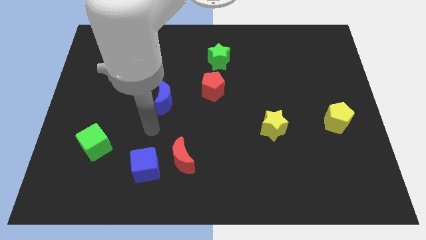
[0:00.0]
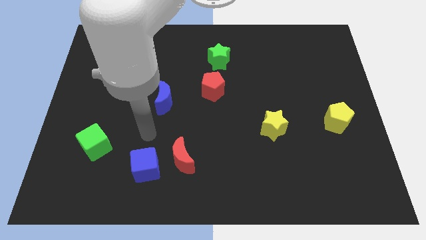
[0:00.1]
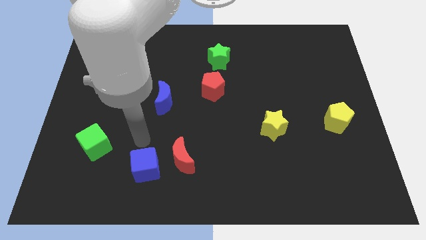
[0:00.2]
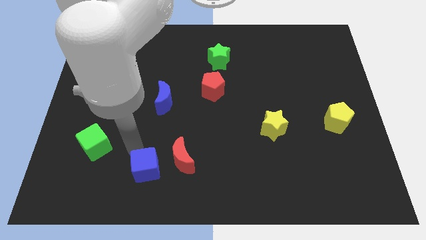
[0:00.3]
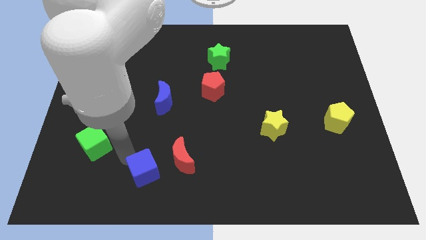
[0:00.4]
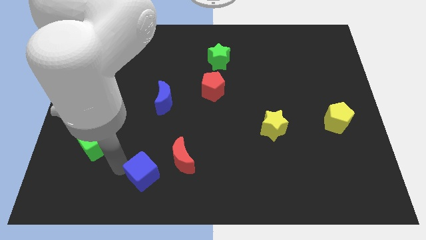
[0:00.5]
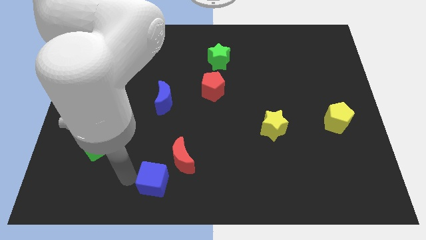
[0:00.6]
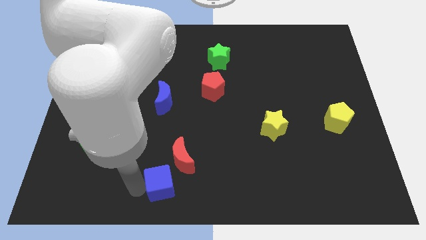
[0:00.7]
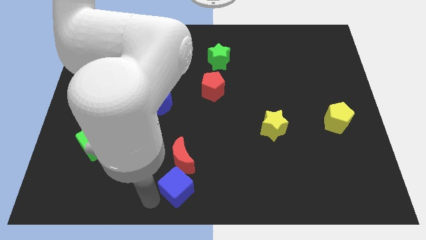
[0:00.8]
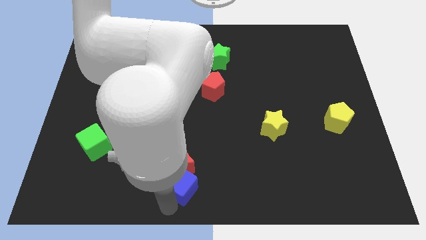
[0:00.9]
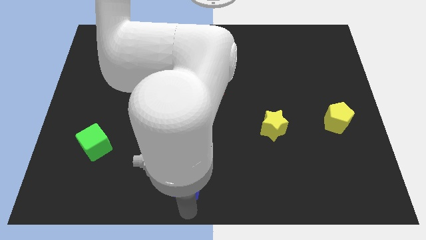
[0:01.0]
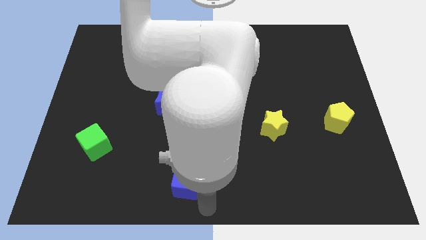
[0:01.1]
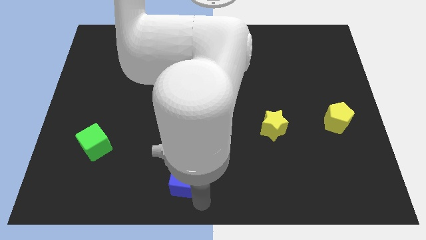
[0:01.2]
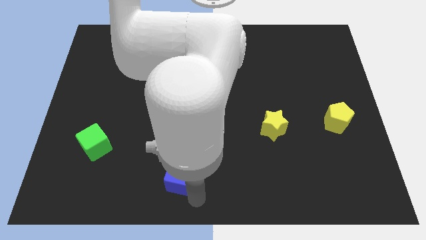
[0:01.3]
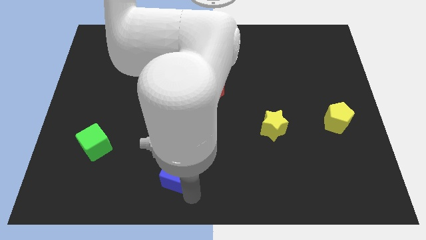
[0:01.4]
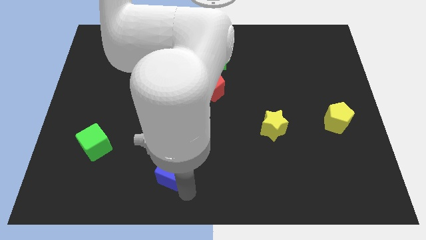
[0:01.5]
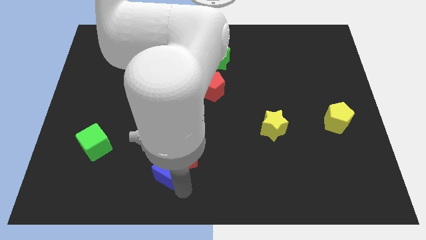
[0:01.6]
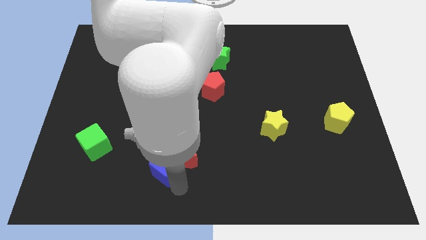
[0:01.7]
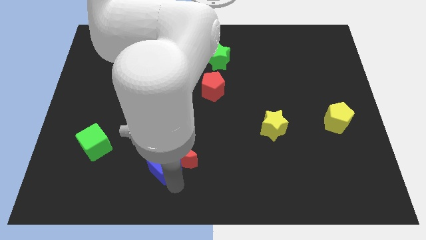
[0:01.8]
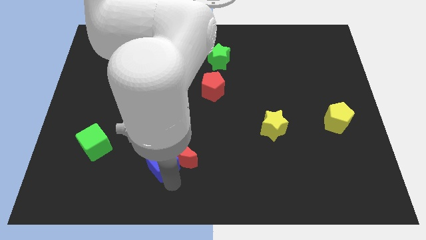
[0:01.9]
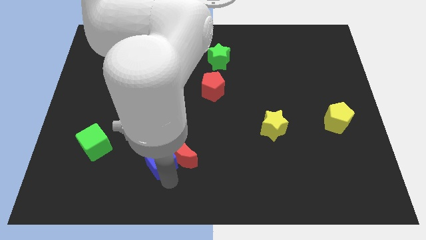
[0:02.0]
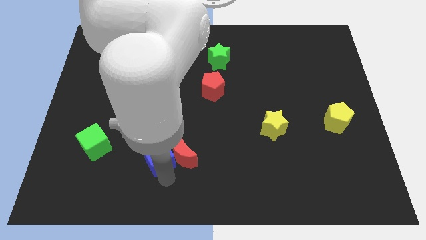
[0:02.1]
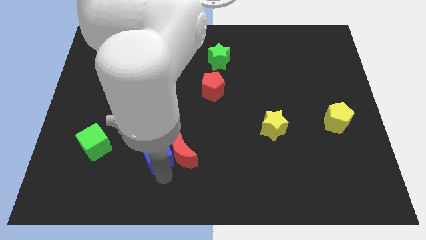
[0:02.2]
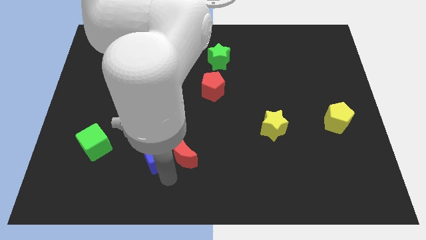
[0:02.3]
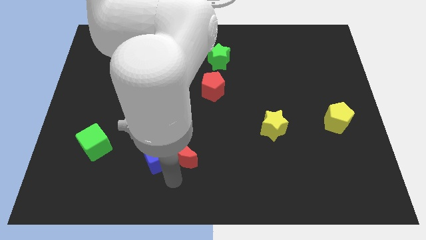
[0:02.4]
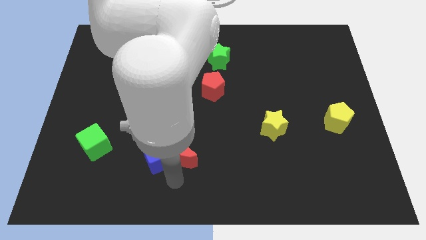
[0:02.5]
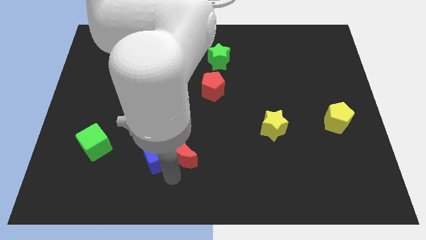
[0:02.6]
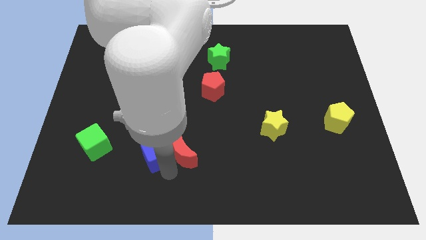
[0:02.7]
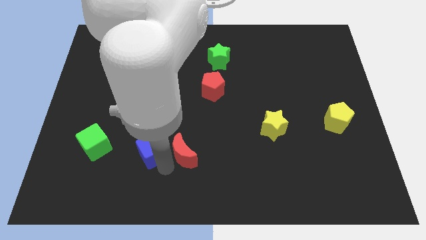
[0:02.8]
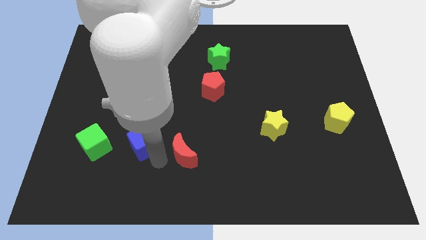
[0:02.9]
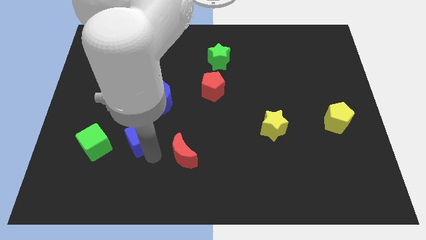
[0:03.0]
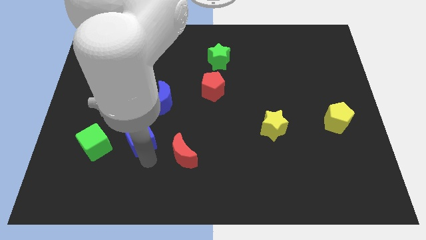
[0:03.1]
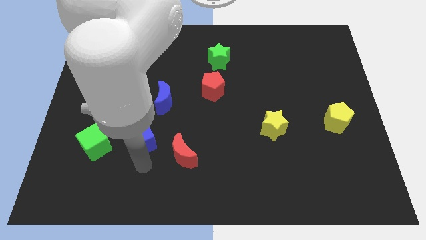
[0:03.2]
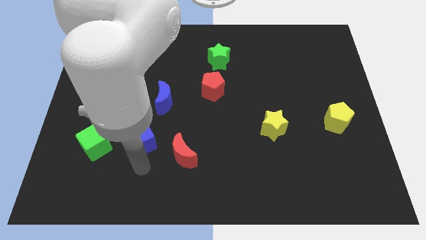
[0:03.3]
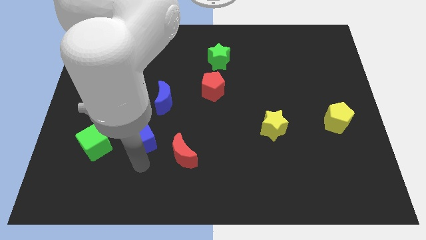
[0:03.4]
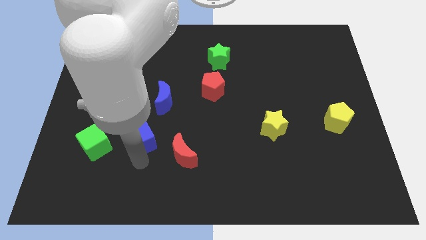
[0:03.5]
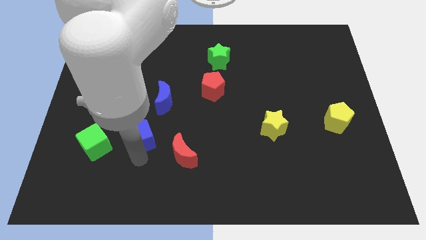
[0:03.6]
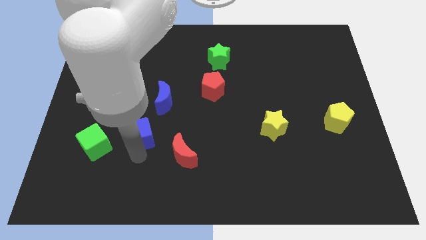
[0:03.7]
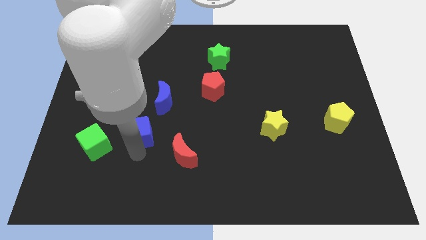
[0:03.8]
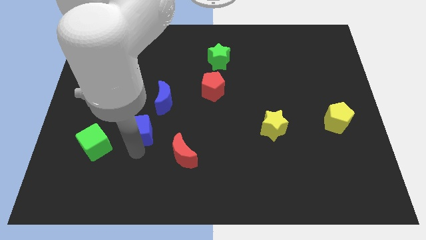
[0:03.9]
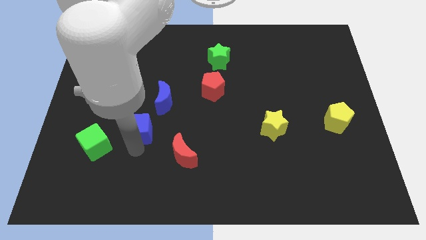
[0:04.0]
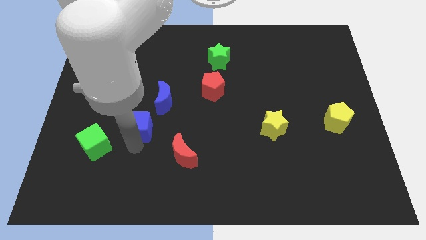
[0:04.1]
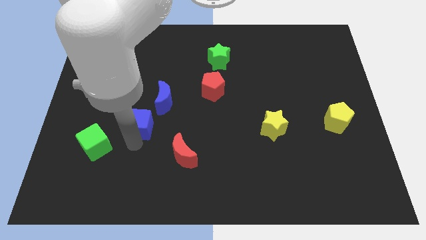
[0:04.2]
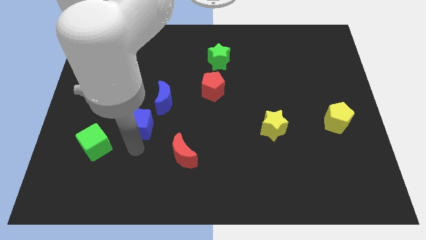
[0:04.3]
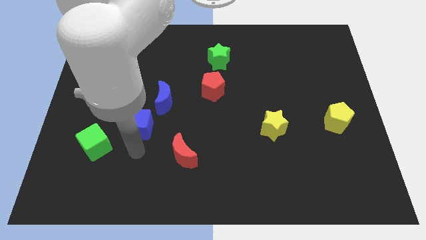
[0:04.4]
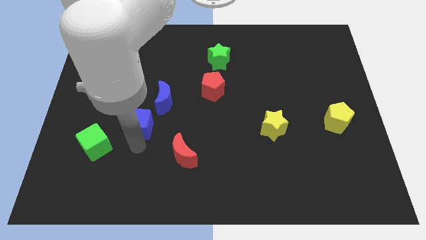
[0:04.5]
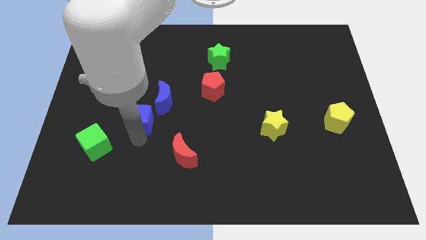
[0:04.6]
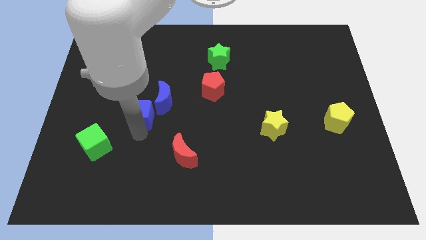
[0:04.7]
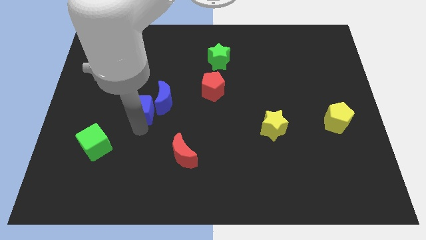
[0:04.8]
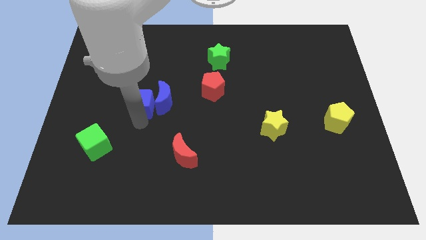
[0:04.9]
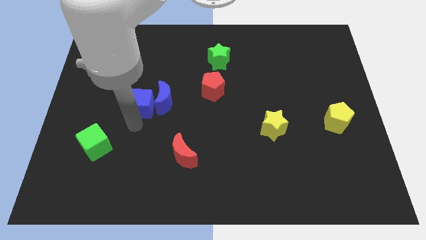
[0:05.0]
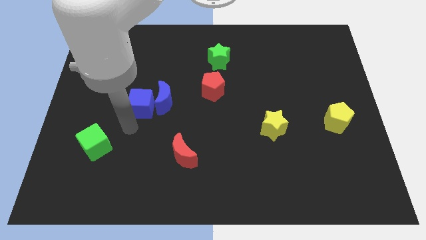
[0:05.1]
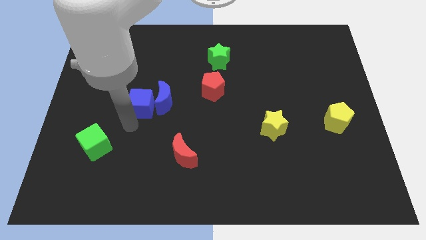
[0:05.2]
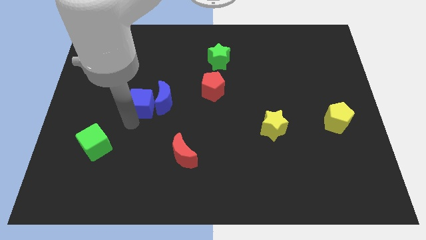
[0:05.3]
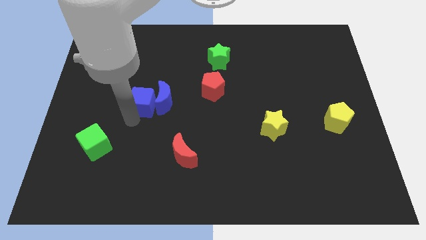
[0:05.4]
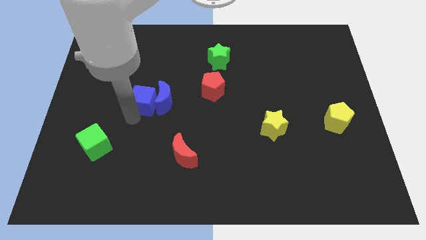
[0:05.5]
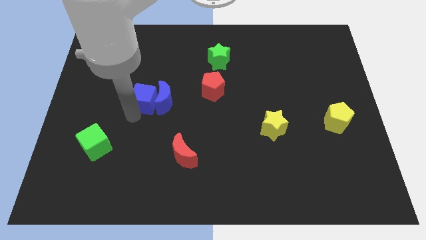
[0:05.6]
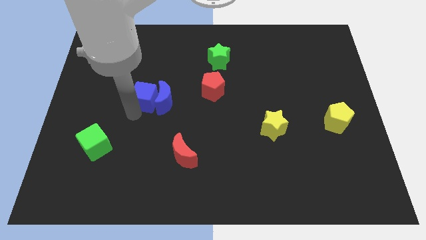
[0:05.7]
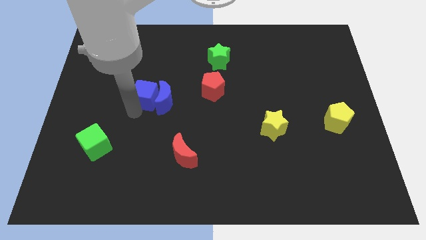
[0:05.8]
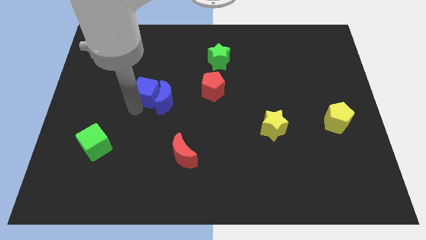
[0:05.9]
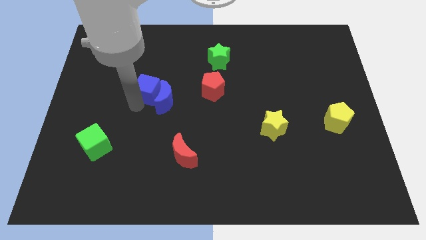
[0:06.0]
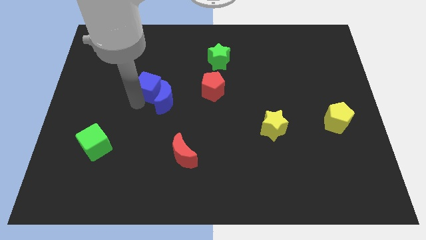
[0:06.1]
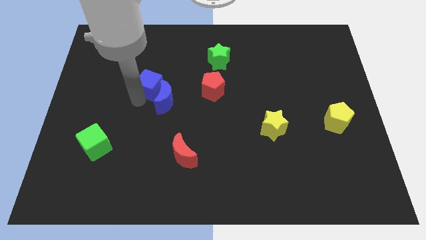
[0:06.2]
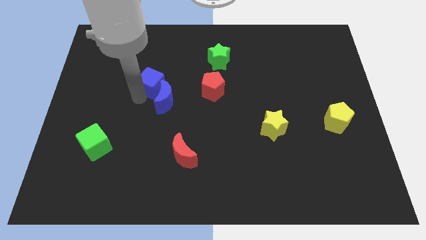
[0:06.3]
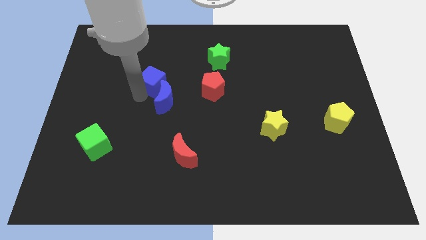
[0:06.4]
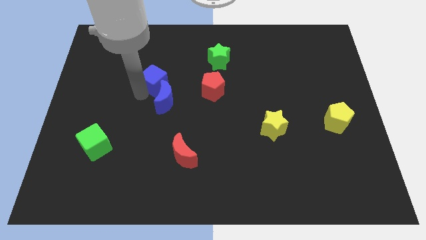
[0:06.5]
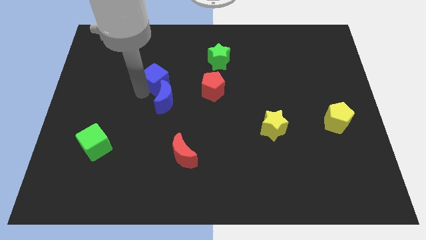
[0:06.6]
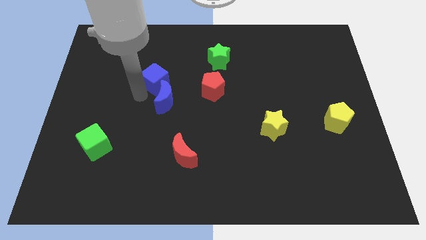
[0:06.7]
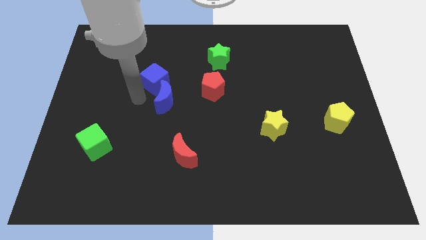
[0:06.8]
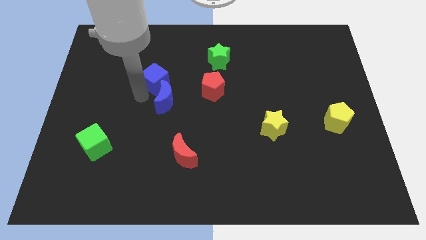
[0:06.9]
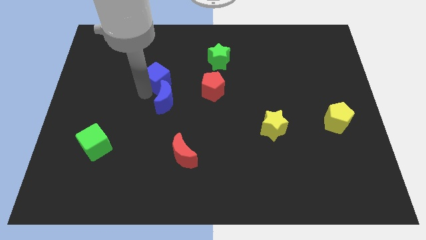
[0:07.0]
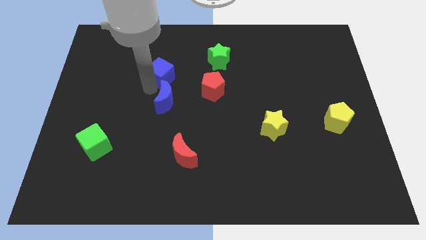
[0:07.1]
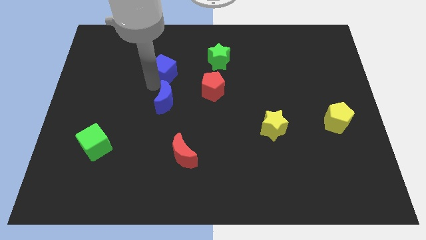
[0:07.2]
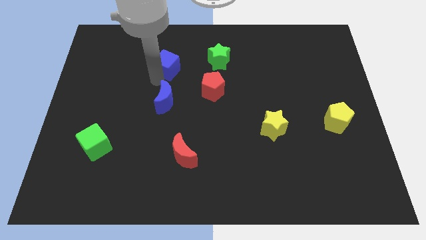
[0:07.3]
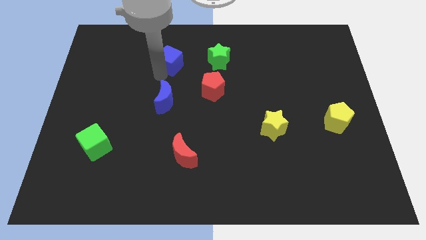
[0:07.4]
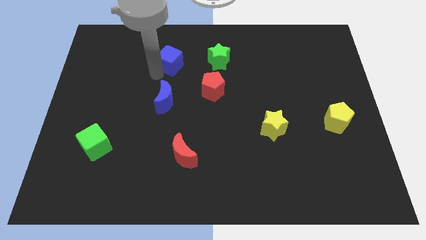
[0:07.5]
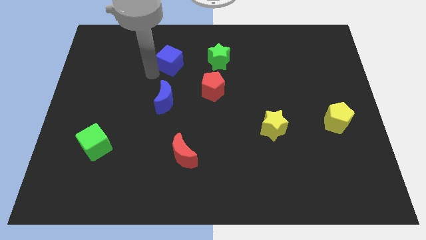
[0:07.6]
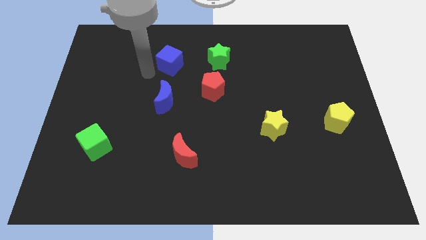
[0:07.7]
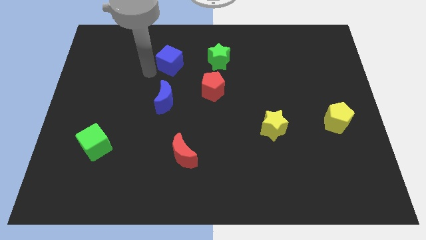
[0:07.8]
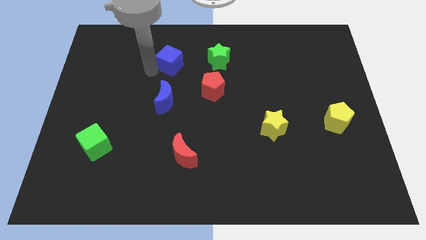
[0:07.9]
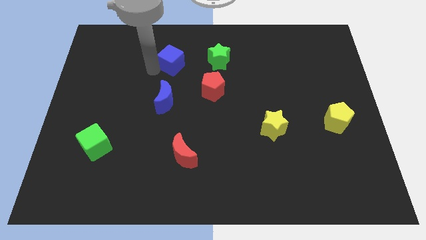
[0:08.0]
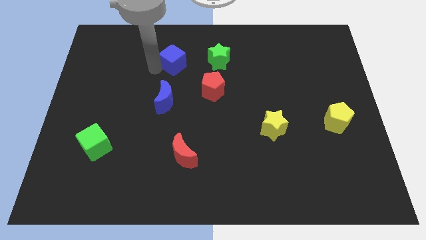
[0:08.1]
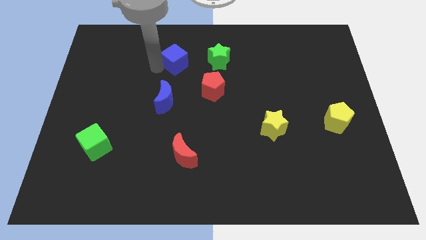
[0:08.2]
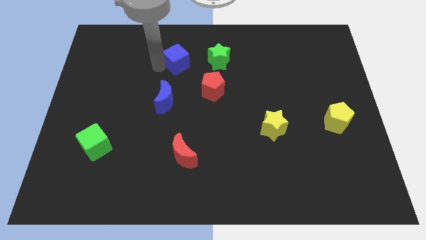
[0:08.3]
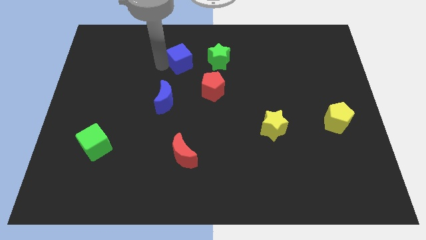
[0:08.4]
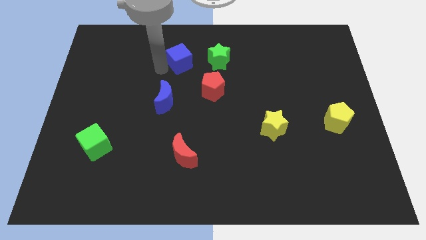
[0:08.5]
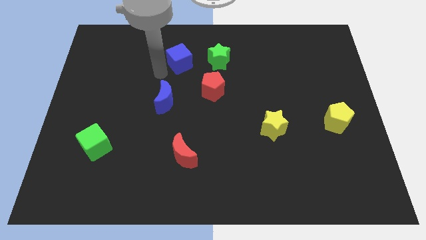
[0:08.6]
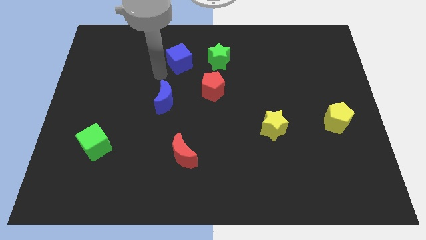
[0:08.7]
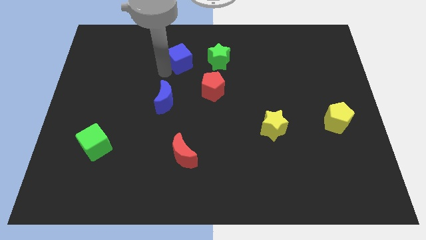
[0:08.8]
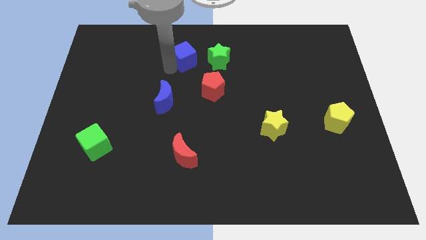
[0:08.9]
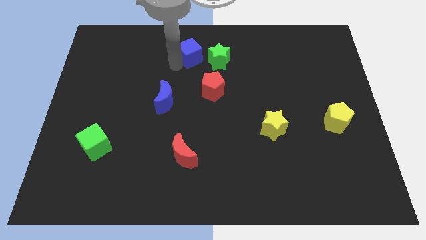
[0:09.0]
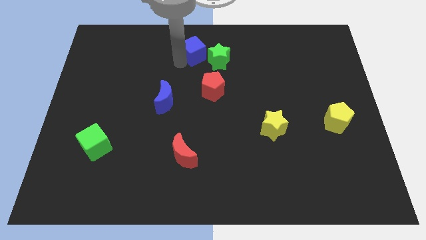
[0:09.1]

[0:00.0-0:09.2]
slide the blue cube to the top
